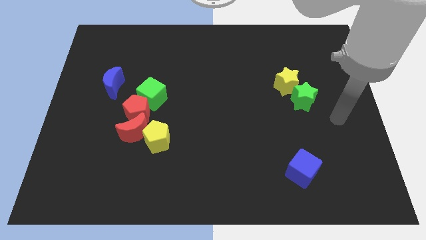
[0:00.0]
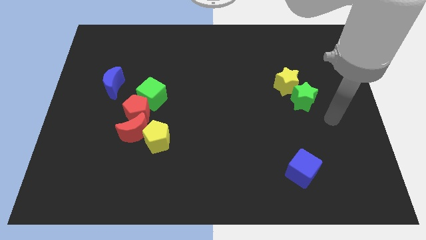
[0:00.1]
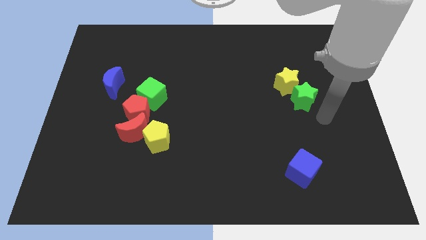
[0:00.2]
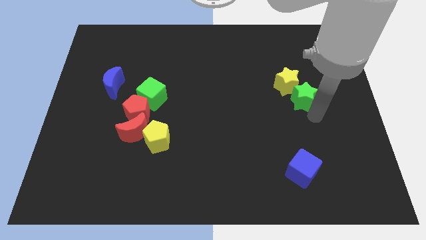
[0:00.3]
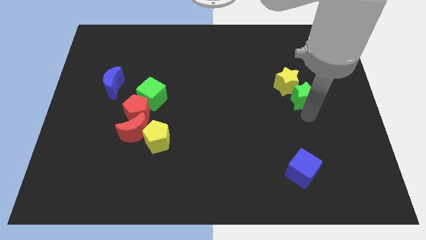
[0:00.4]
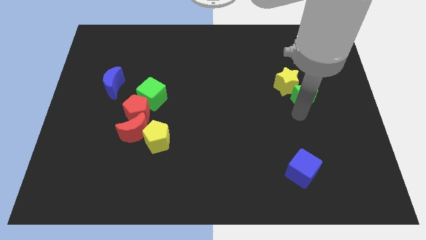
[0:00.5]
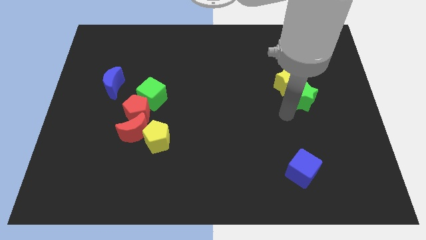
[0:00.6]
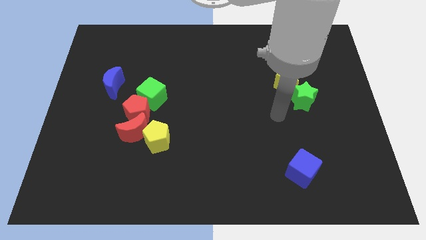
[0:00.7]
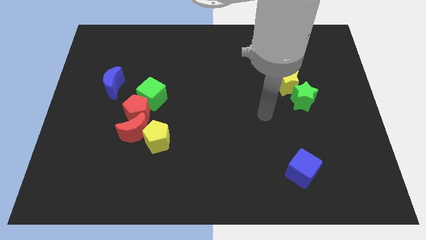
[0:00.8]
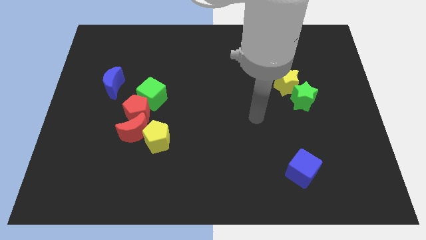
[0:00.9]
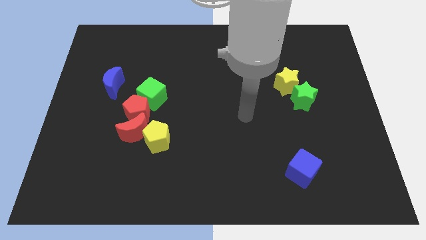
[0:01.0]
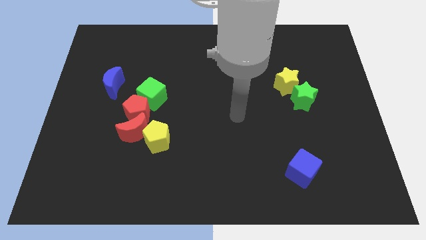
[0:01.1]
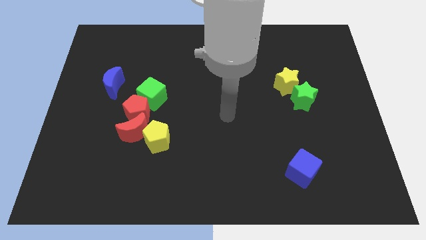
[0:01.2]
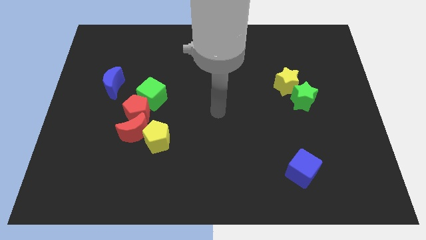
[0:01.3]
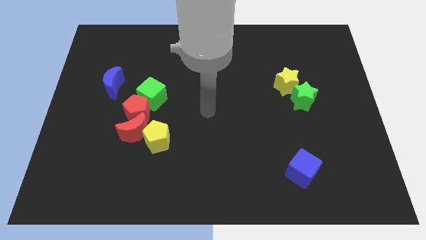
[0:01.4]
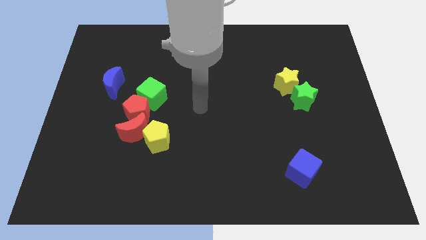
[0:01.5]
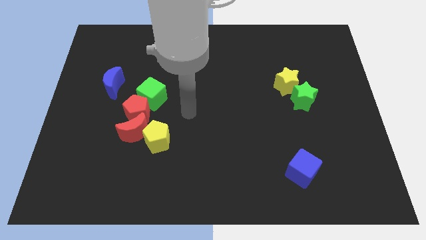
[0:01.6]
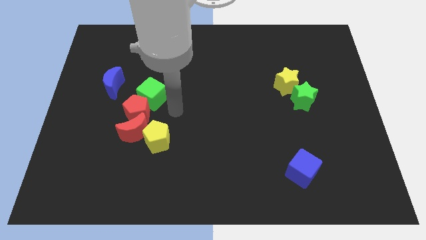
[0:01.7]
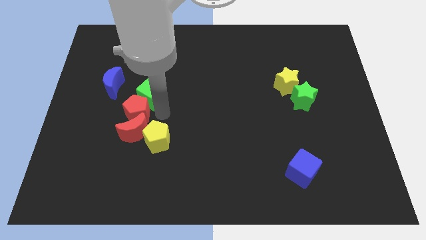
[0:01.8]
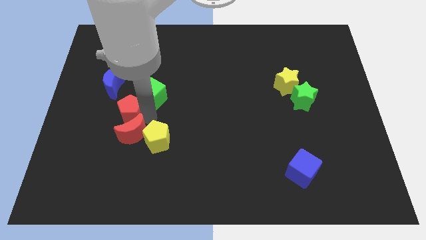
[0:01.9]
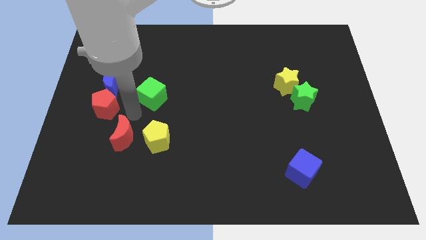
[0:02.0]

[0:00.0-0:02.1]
separate the green cube from the red pentagon

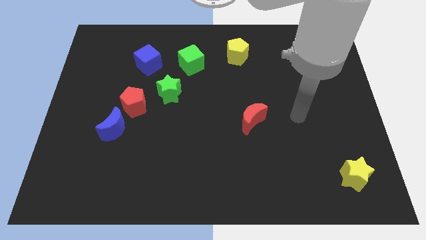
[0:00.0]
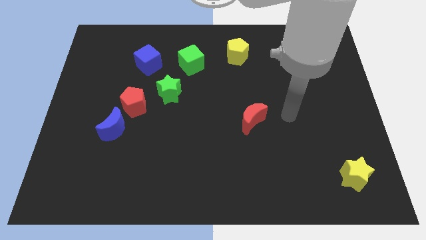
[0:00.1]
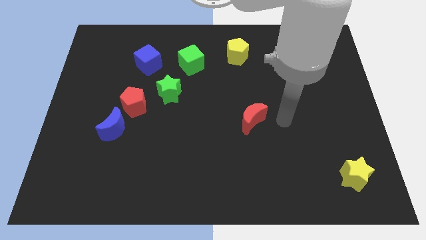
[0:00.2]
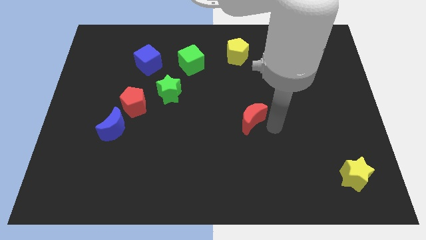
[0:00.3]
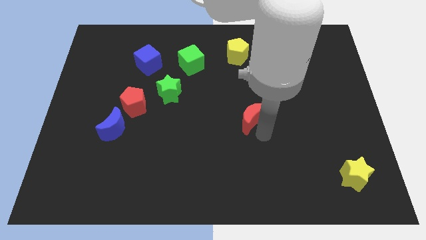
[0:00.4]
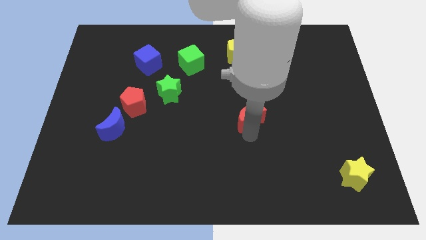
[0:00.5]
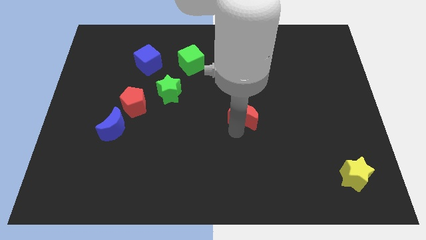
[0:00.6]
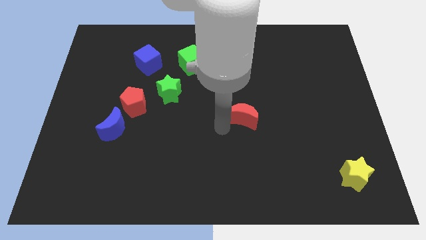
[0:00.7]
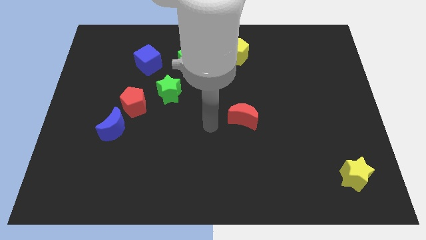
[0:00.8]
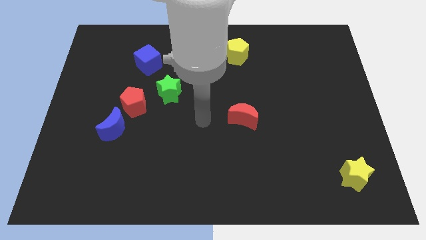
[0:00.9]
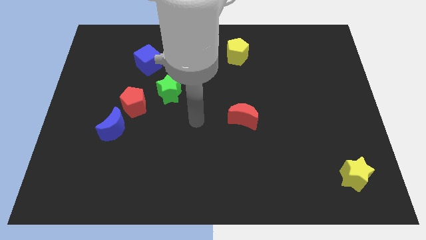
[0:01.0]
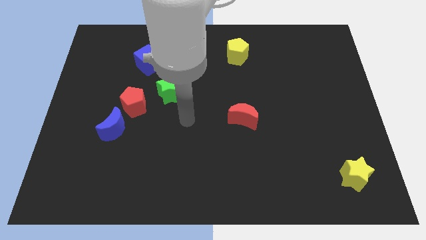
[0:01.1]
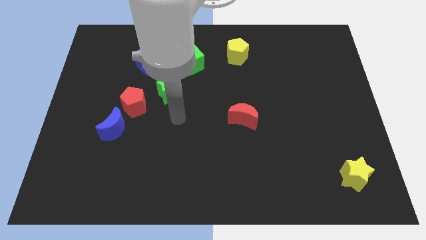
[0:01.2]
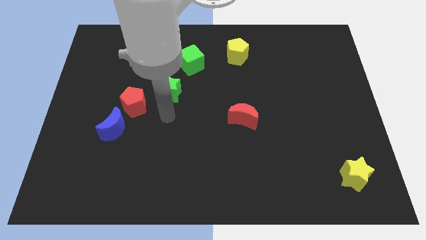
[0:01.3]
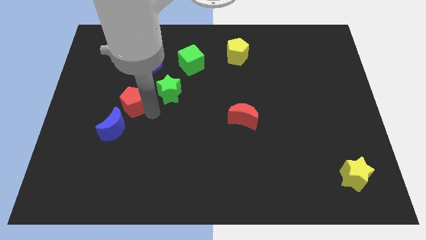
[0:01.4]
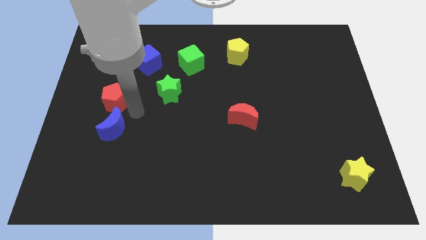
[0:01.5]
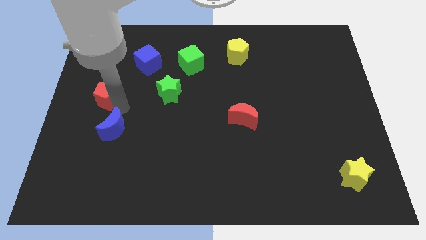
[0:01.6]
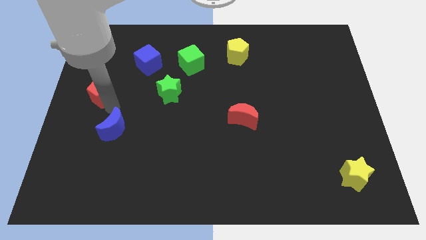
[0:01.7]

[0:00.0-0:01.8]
pull the blue moon apart from the red pentagon

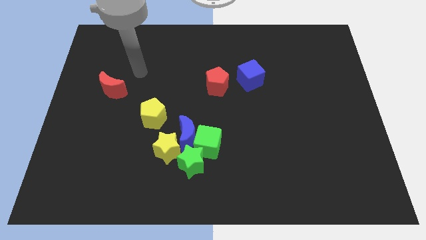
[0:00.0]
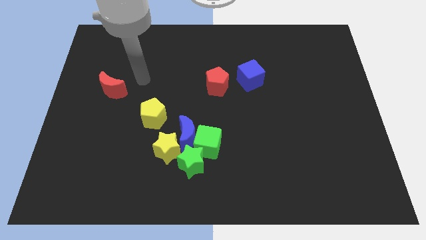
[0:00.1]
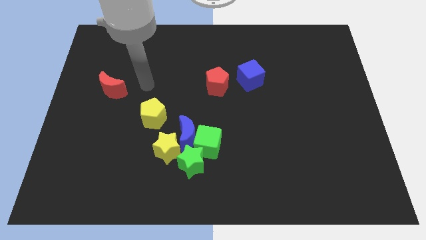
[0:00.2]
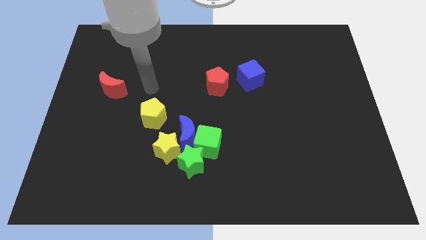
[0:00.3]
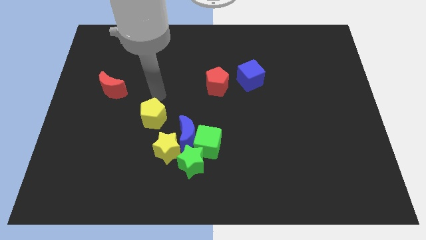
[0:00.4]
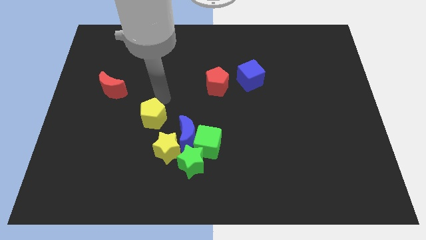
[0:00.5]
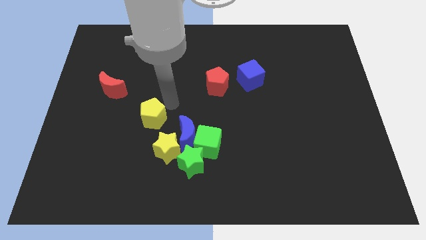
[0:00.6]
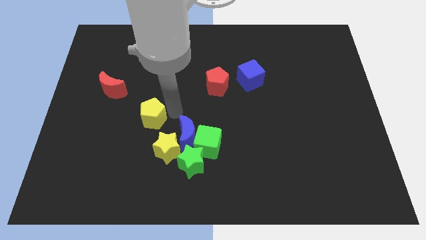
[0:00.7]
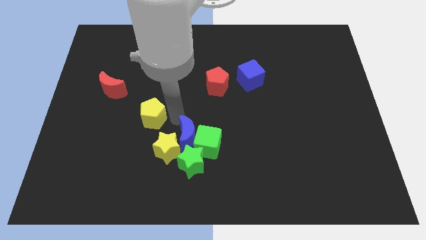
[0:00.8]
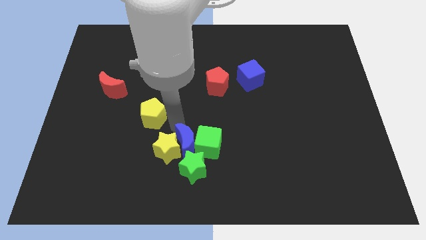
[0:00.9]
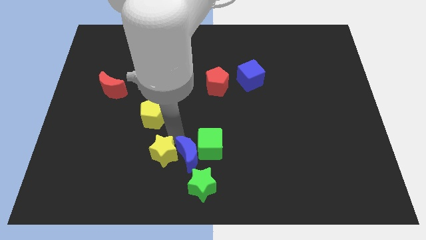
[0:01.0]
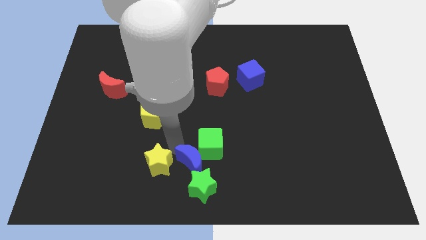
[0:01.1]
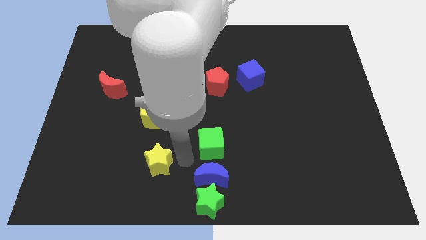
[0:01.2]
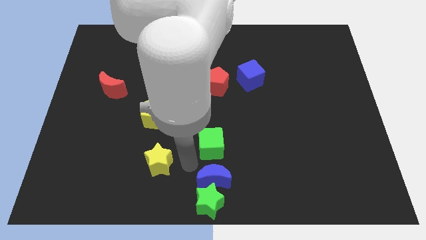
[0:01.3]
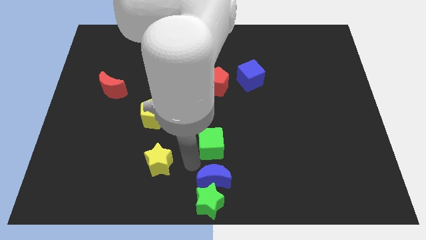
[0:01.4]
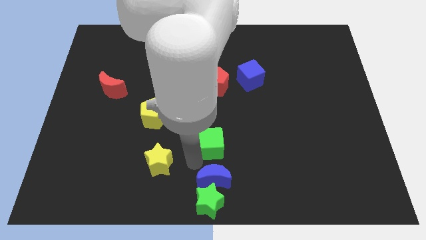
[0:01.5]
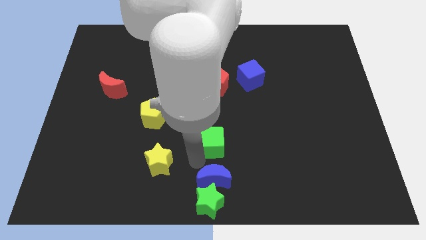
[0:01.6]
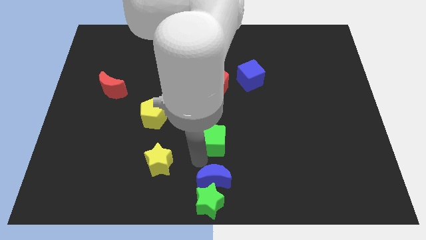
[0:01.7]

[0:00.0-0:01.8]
pull the green cube apart from the group

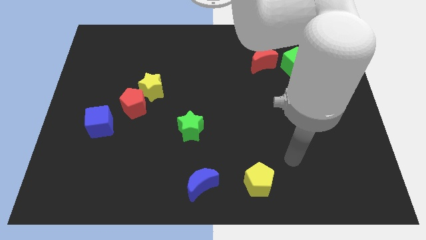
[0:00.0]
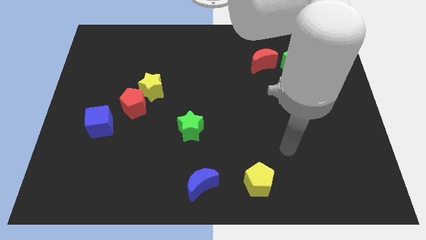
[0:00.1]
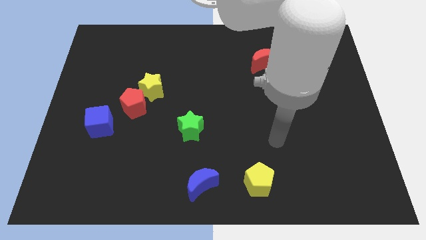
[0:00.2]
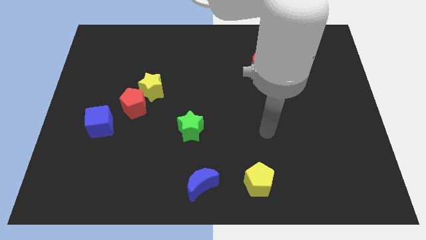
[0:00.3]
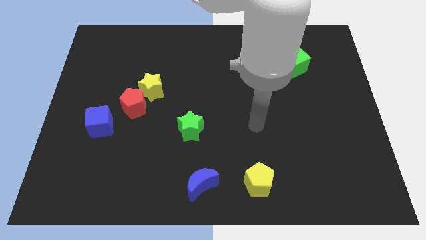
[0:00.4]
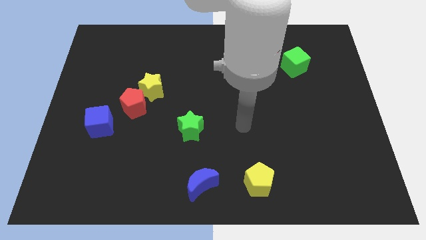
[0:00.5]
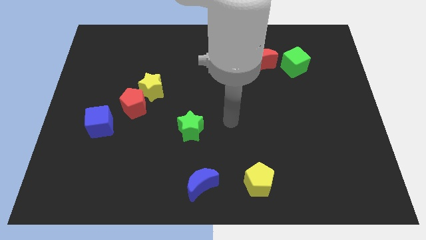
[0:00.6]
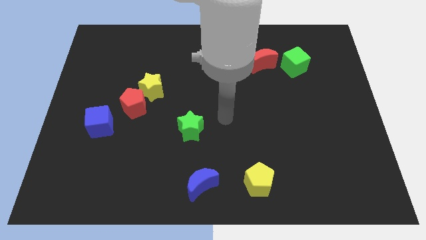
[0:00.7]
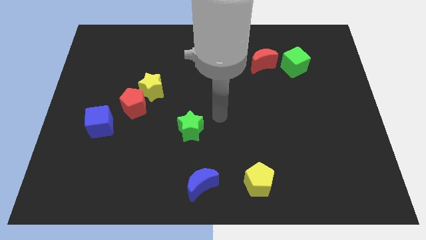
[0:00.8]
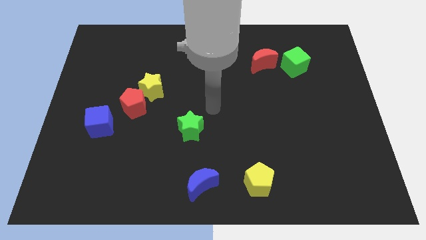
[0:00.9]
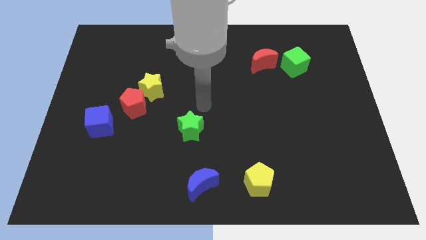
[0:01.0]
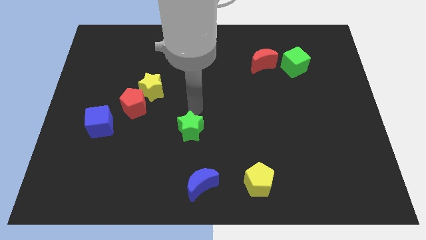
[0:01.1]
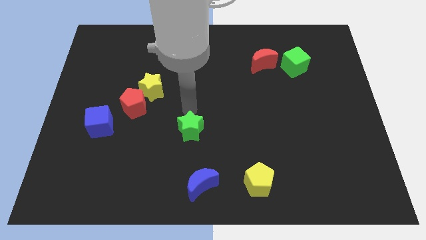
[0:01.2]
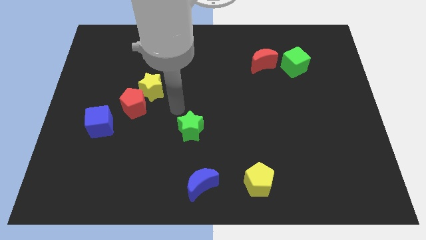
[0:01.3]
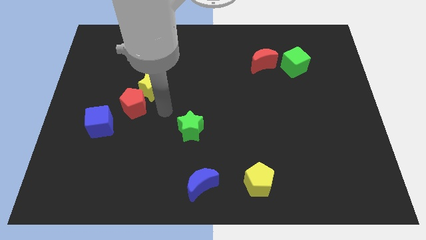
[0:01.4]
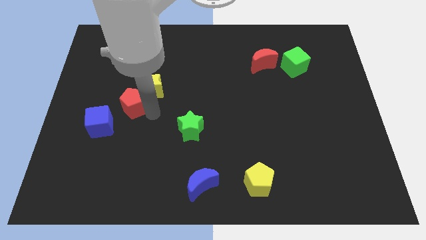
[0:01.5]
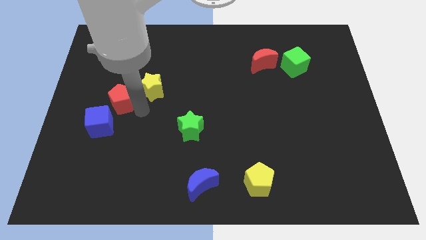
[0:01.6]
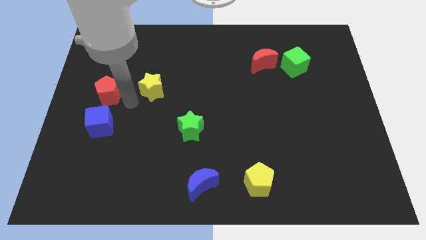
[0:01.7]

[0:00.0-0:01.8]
move the yellow star away from the red pentagon

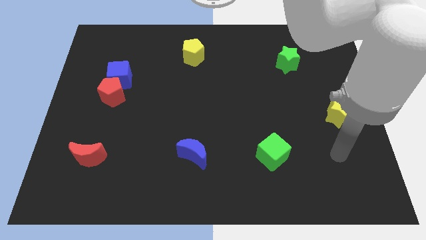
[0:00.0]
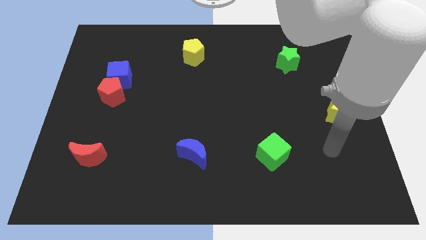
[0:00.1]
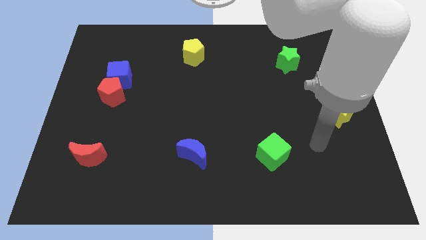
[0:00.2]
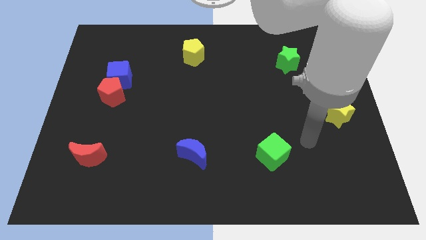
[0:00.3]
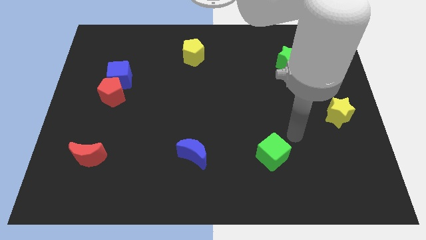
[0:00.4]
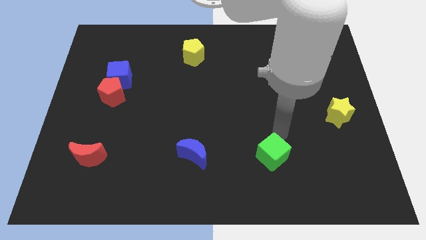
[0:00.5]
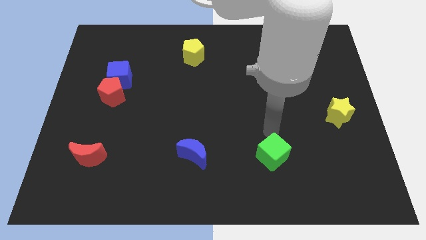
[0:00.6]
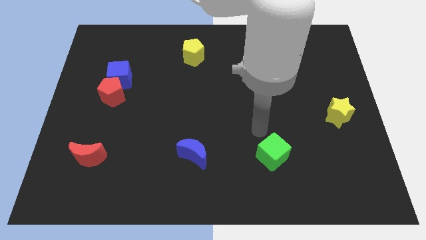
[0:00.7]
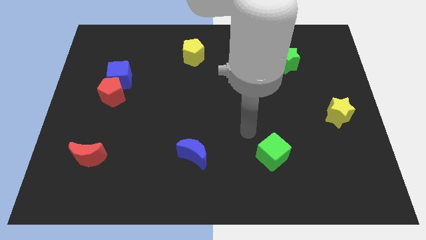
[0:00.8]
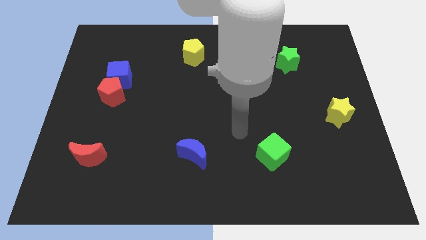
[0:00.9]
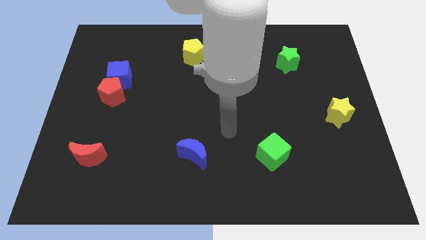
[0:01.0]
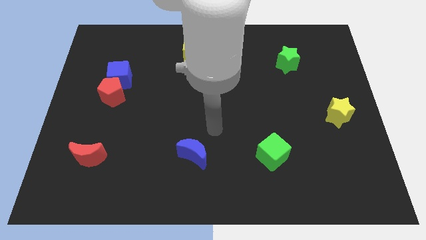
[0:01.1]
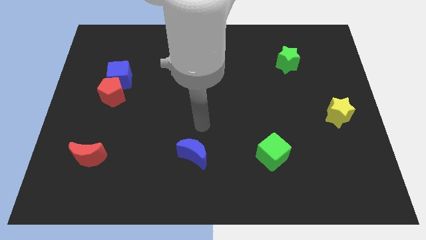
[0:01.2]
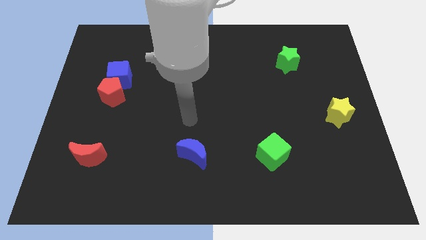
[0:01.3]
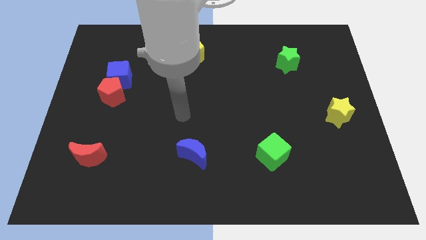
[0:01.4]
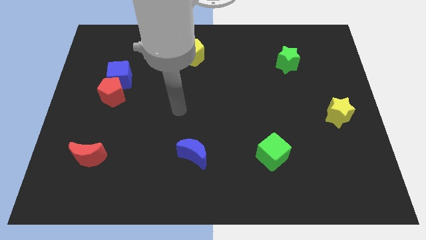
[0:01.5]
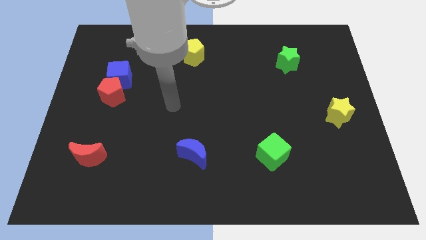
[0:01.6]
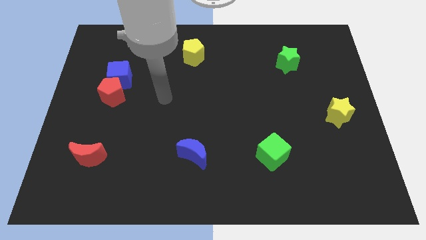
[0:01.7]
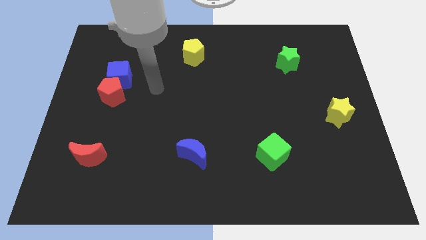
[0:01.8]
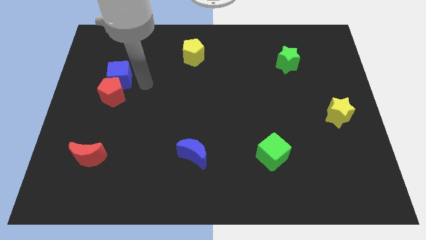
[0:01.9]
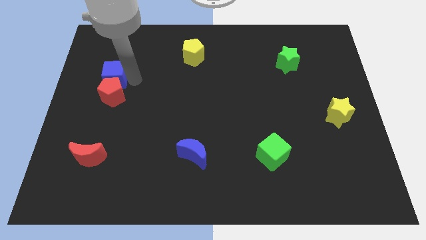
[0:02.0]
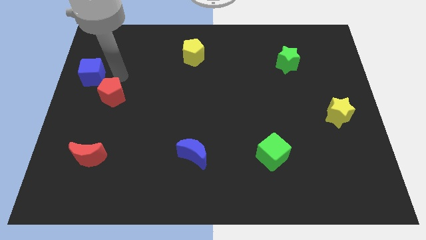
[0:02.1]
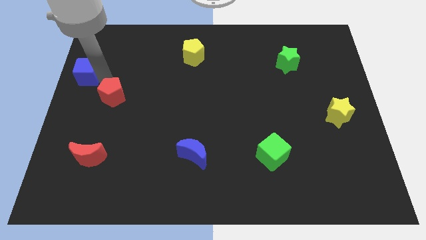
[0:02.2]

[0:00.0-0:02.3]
move the red pentagon away from the blue cube
